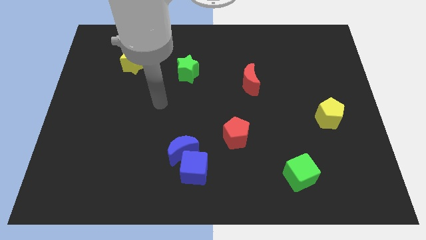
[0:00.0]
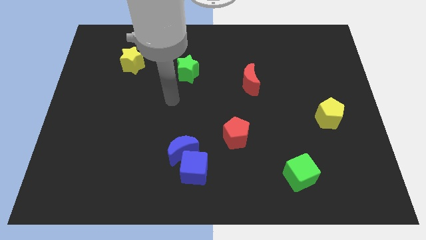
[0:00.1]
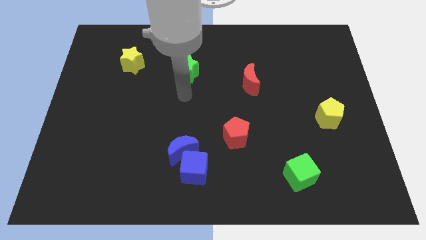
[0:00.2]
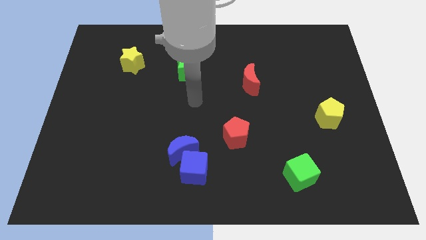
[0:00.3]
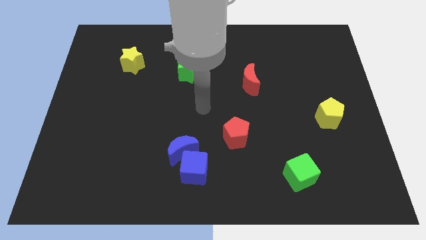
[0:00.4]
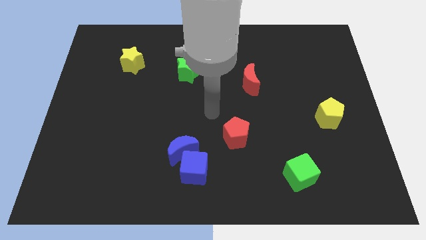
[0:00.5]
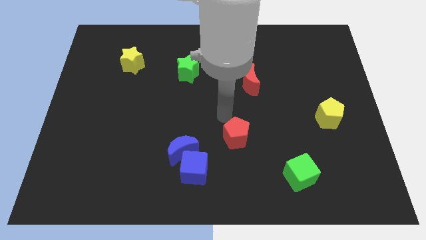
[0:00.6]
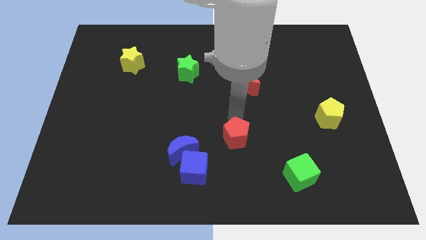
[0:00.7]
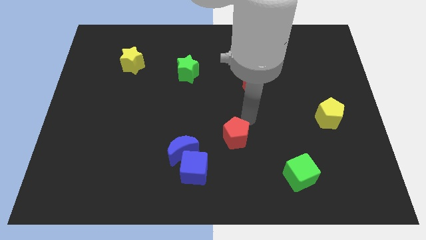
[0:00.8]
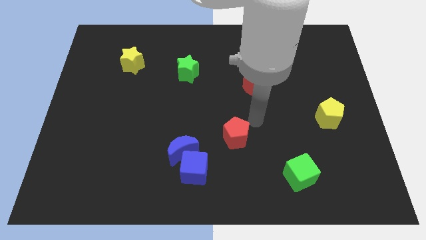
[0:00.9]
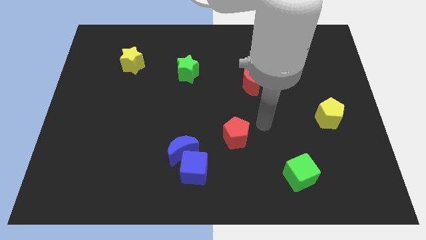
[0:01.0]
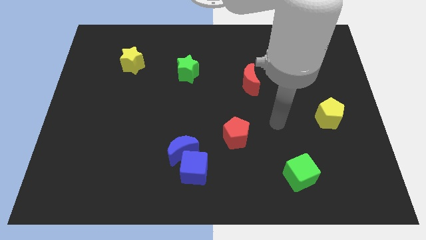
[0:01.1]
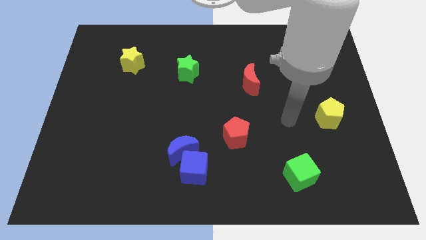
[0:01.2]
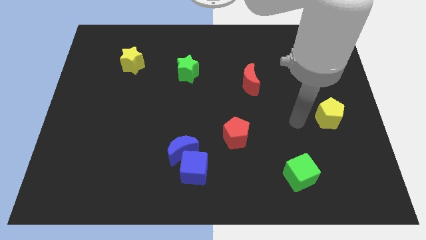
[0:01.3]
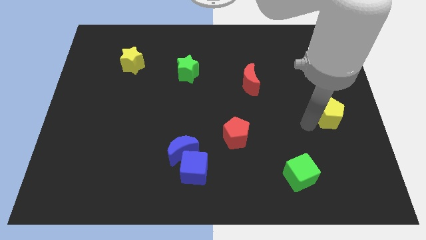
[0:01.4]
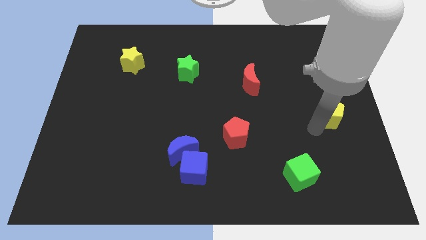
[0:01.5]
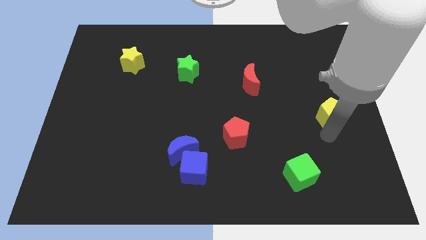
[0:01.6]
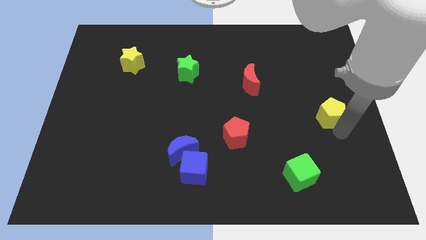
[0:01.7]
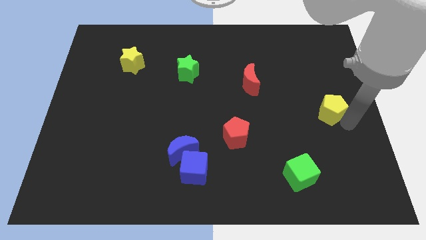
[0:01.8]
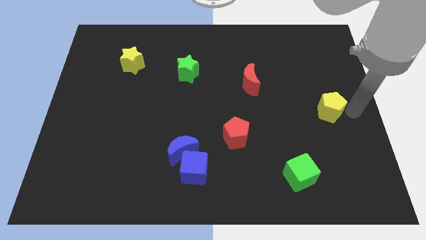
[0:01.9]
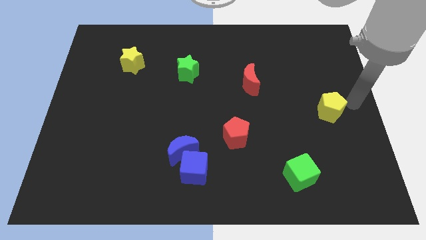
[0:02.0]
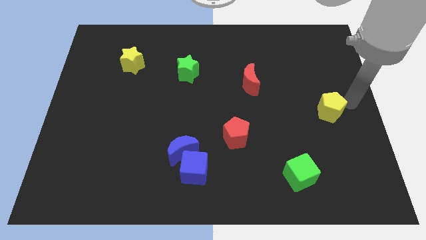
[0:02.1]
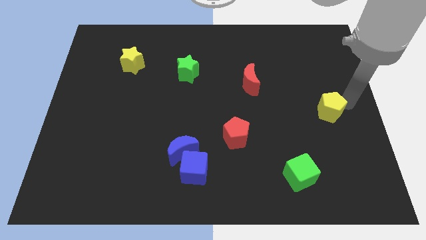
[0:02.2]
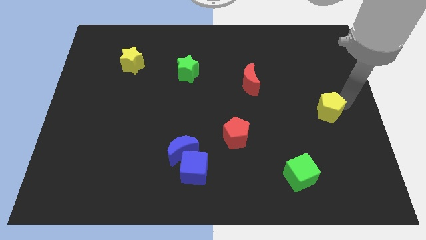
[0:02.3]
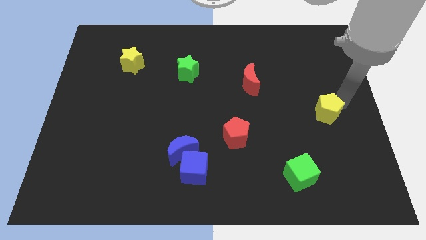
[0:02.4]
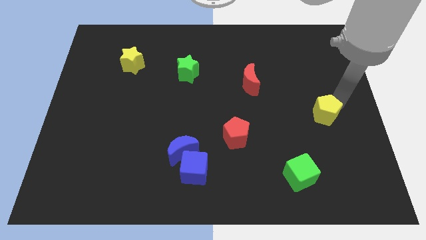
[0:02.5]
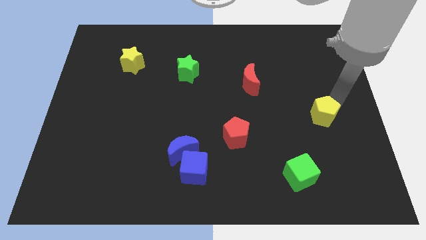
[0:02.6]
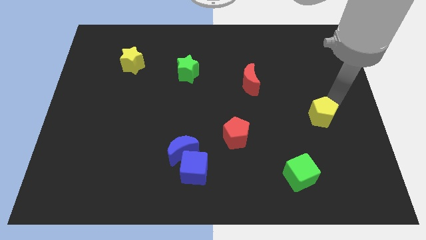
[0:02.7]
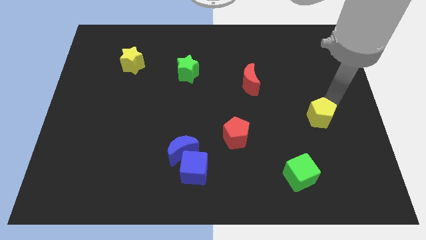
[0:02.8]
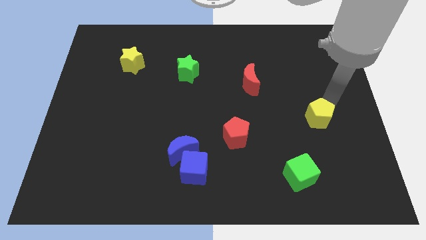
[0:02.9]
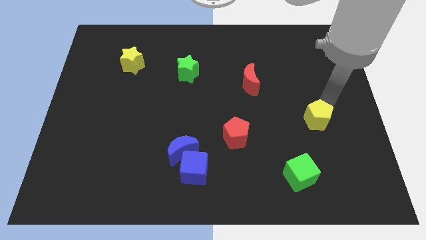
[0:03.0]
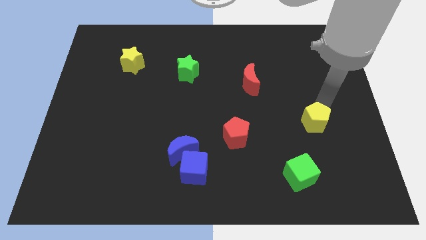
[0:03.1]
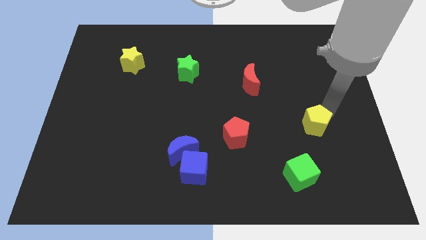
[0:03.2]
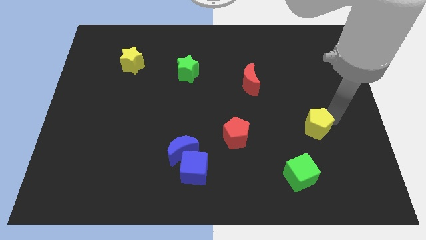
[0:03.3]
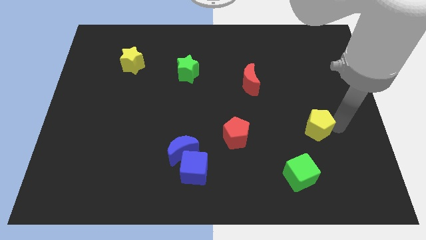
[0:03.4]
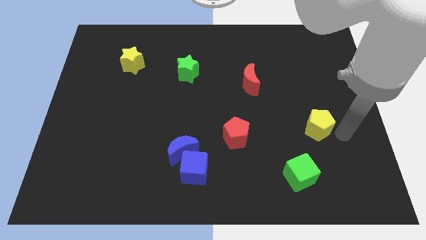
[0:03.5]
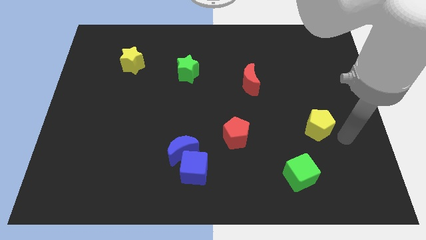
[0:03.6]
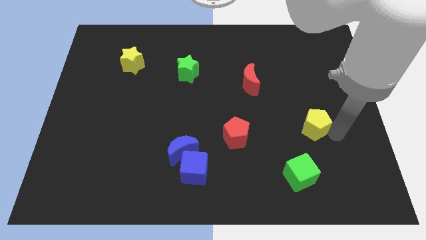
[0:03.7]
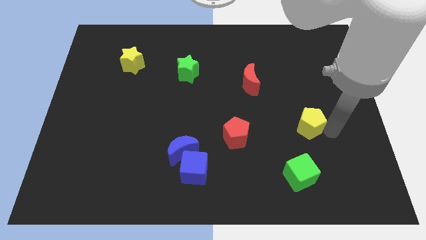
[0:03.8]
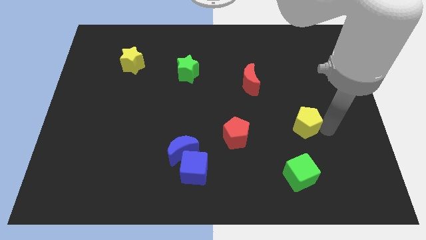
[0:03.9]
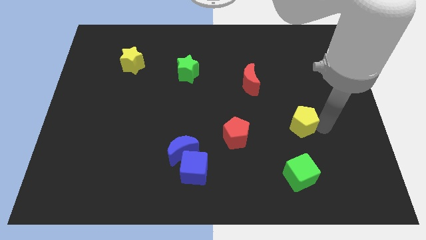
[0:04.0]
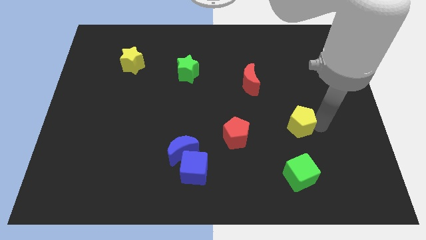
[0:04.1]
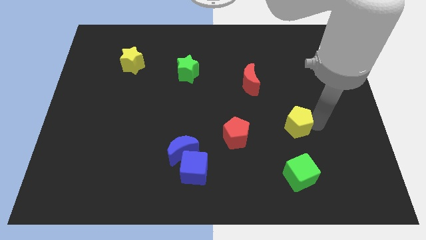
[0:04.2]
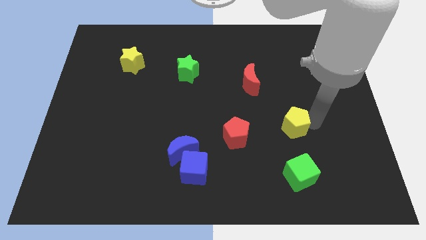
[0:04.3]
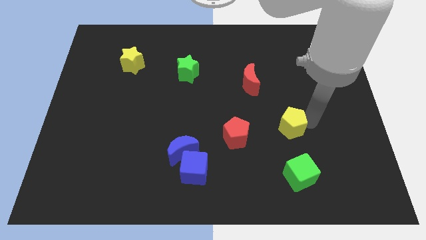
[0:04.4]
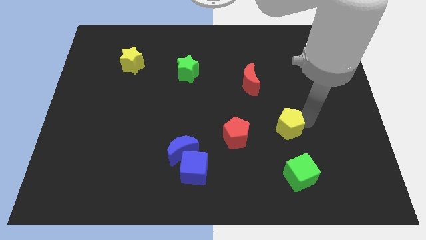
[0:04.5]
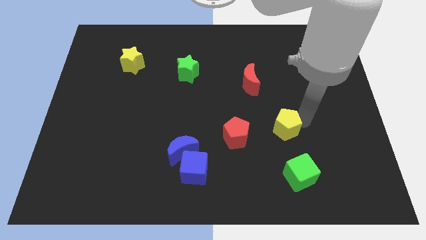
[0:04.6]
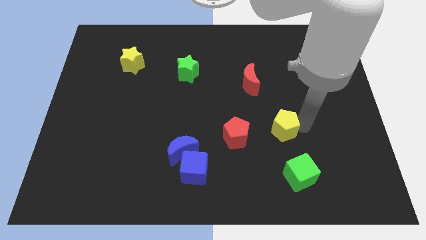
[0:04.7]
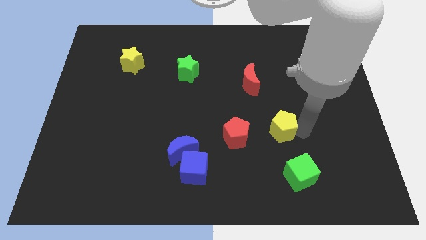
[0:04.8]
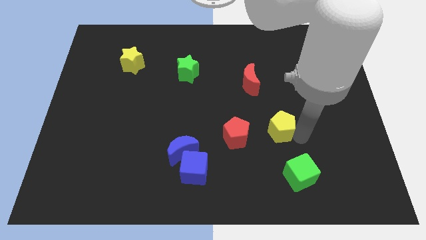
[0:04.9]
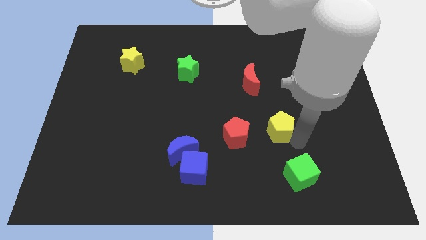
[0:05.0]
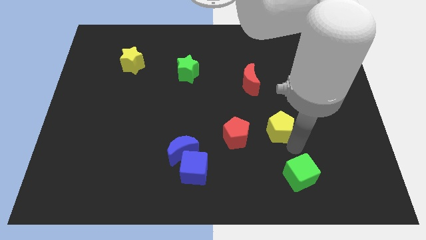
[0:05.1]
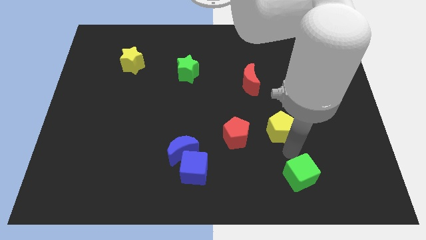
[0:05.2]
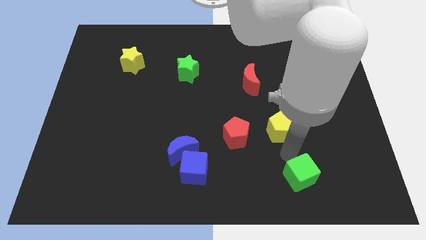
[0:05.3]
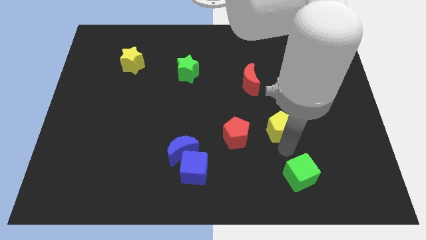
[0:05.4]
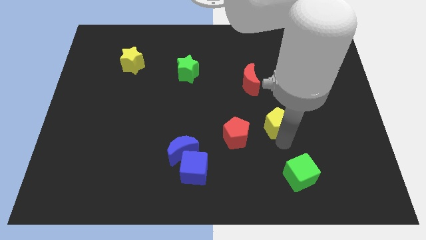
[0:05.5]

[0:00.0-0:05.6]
put the yellow pentagon diagonally up and to the right of the red pentagon

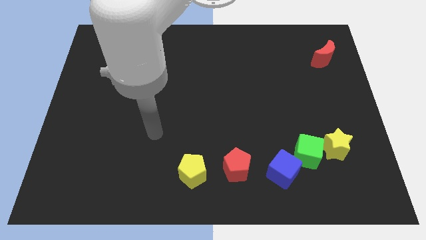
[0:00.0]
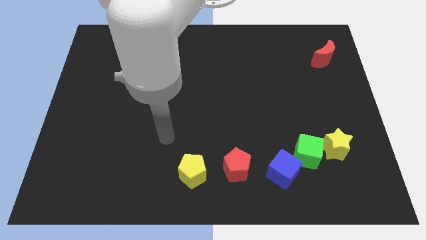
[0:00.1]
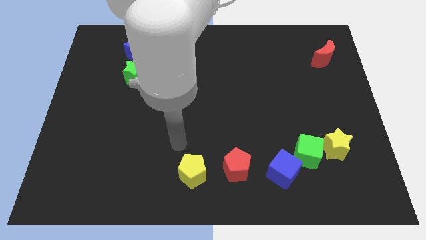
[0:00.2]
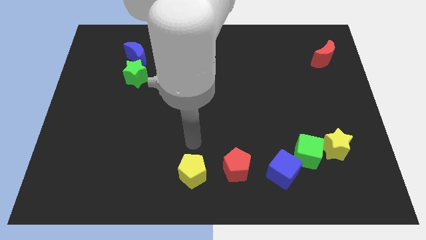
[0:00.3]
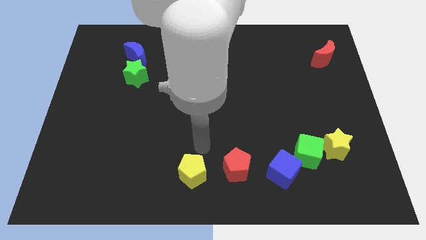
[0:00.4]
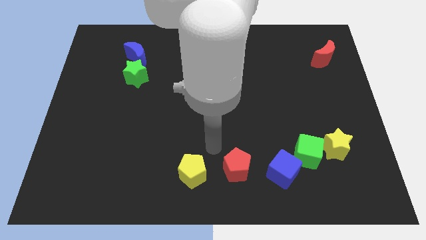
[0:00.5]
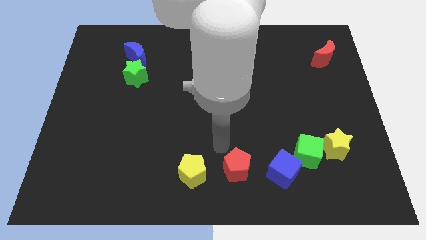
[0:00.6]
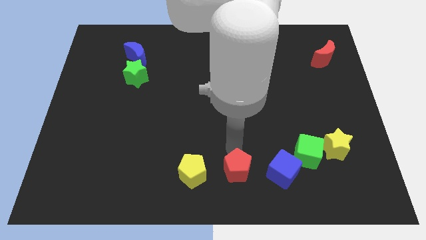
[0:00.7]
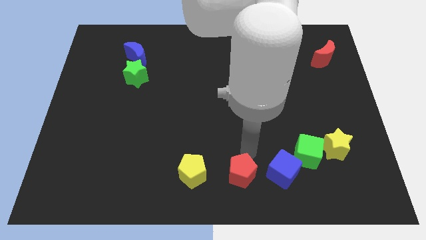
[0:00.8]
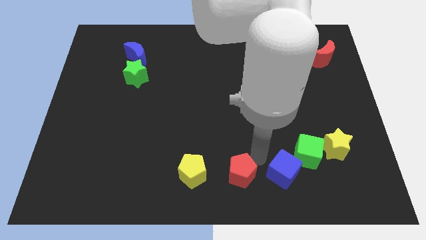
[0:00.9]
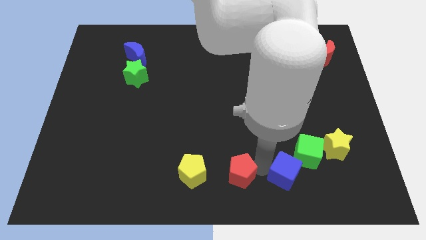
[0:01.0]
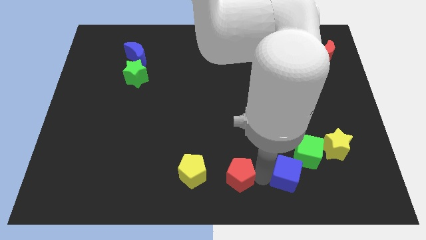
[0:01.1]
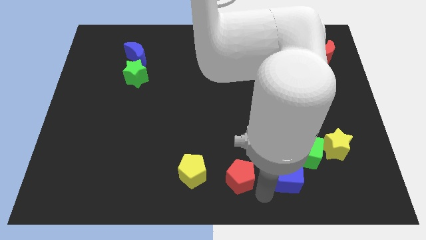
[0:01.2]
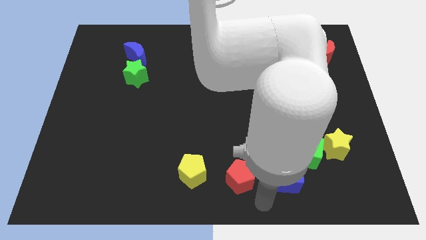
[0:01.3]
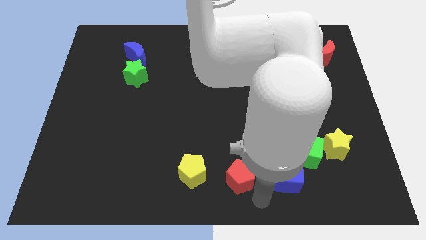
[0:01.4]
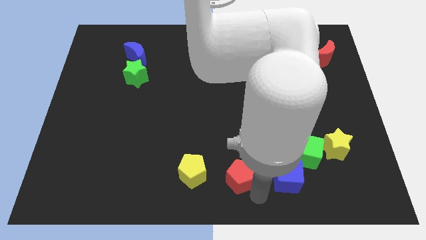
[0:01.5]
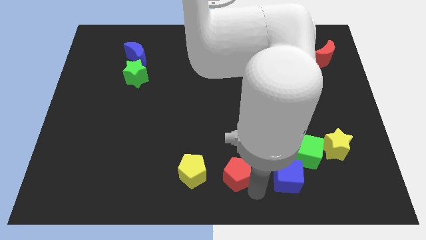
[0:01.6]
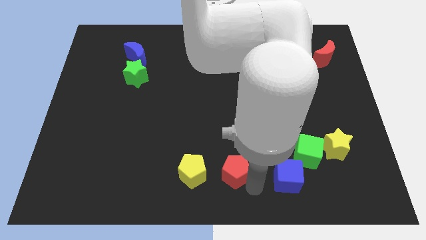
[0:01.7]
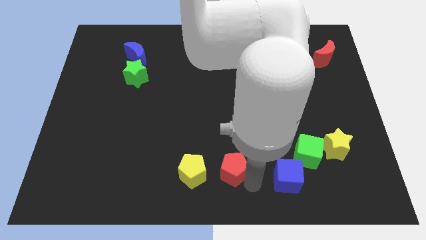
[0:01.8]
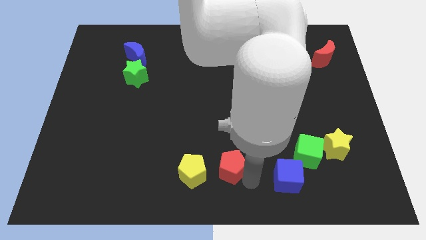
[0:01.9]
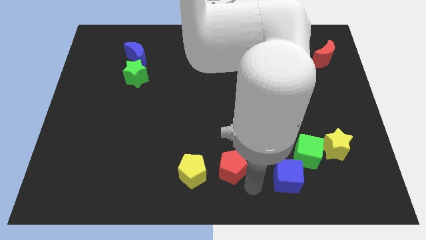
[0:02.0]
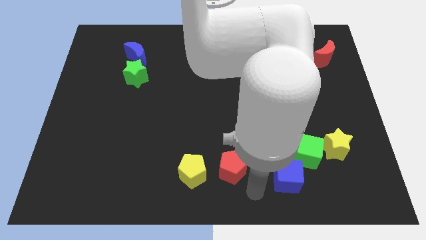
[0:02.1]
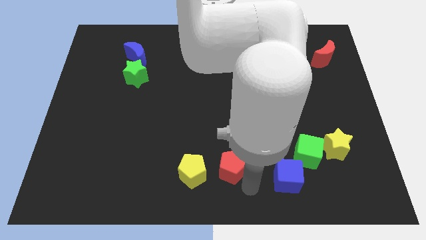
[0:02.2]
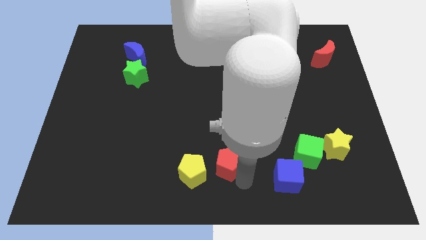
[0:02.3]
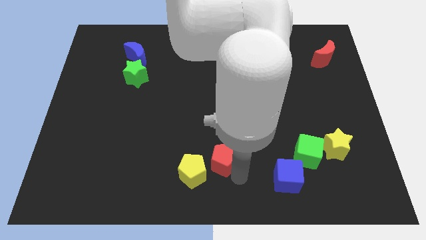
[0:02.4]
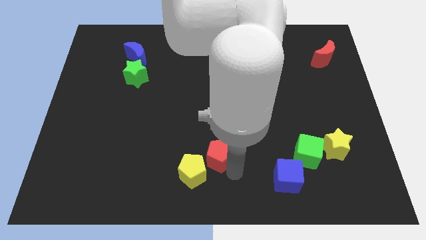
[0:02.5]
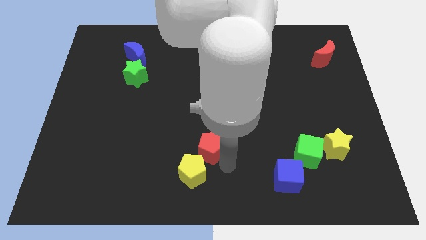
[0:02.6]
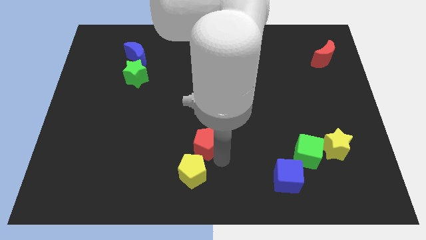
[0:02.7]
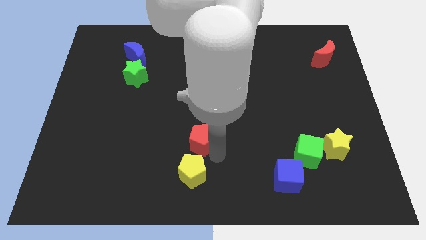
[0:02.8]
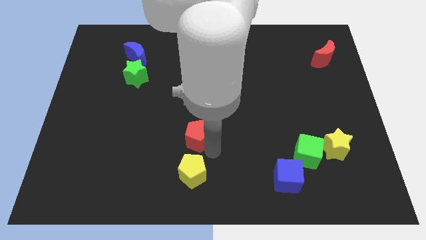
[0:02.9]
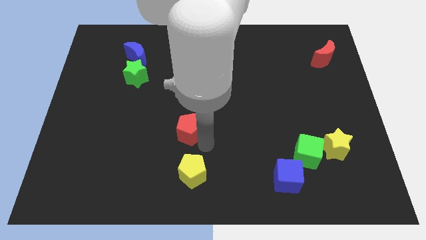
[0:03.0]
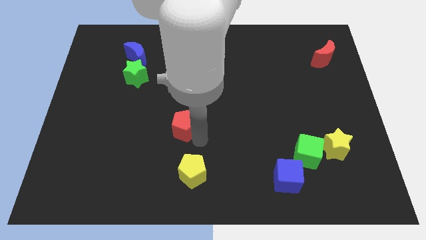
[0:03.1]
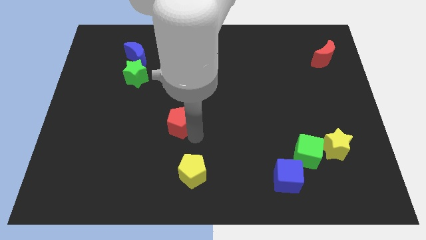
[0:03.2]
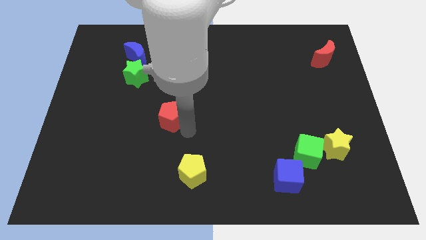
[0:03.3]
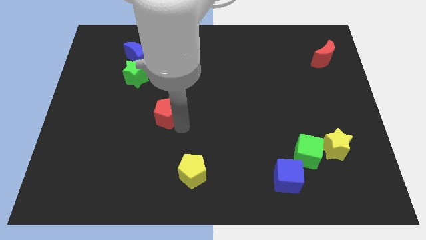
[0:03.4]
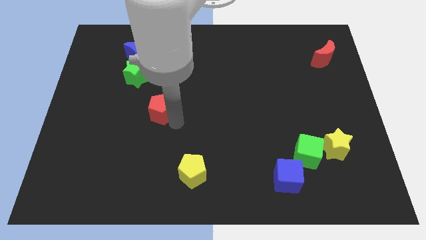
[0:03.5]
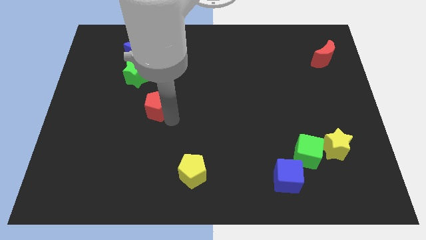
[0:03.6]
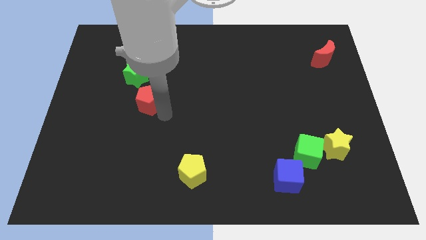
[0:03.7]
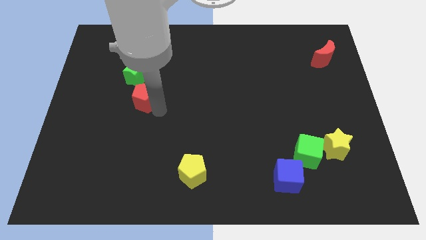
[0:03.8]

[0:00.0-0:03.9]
slide the red pentagon below the blue moon
